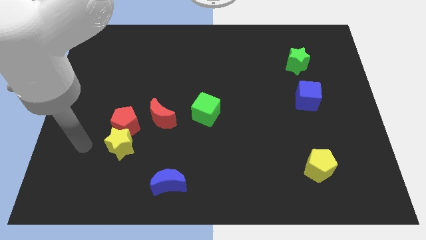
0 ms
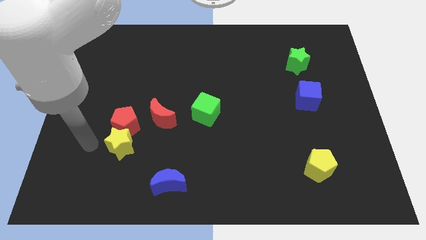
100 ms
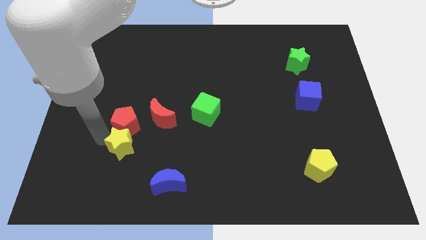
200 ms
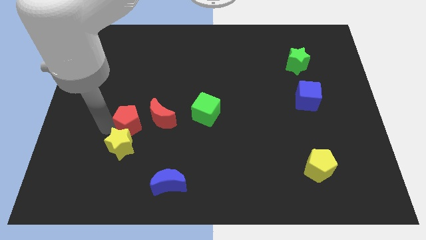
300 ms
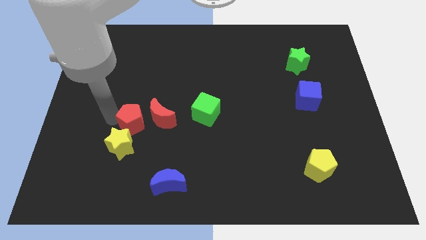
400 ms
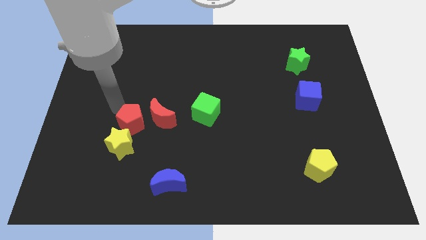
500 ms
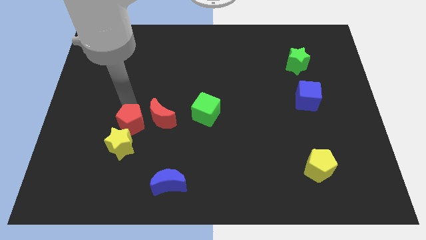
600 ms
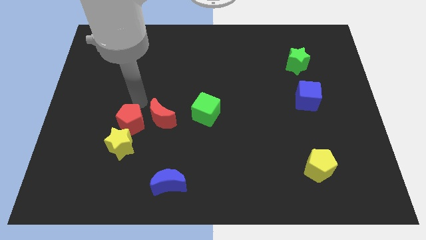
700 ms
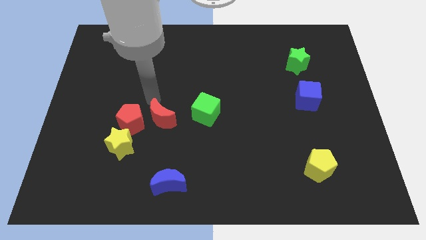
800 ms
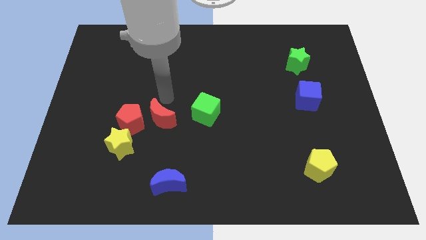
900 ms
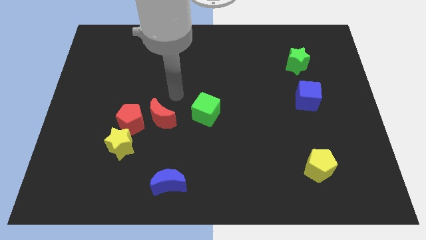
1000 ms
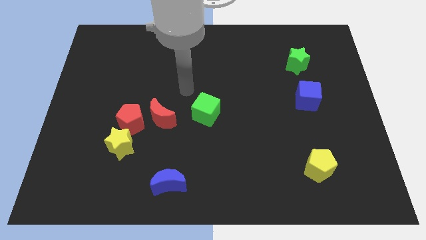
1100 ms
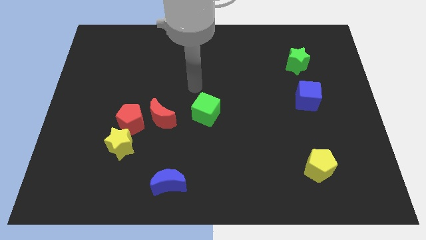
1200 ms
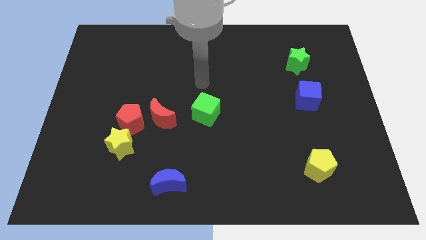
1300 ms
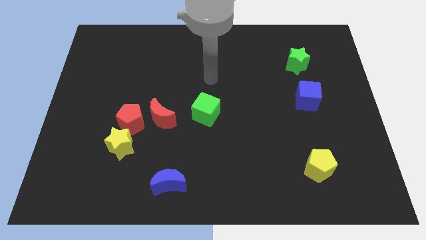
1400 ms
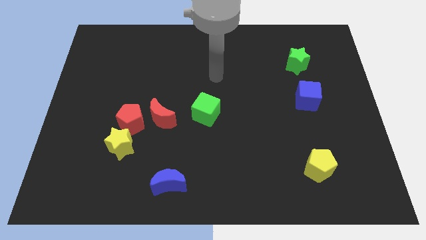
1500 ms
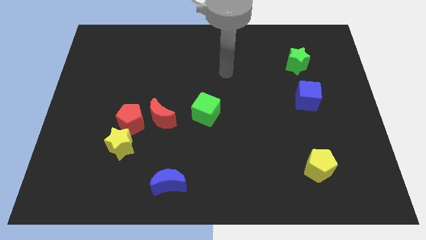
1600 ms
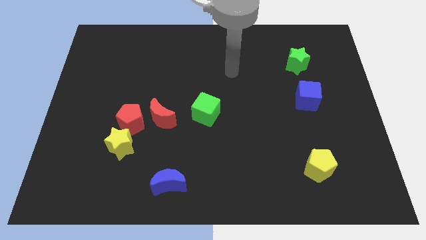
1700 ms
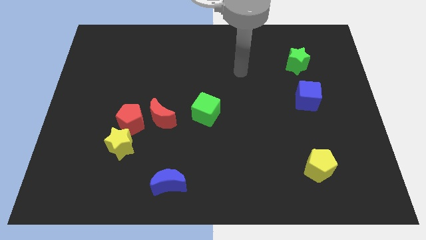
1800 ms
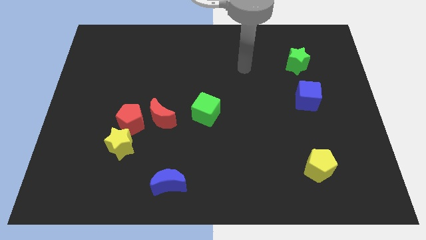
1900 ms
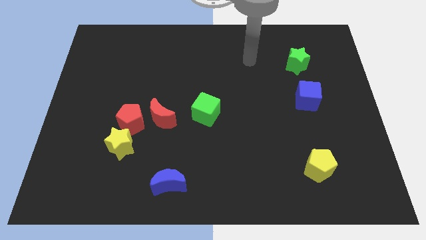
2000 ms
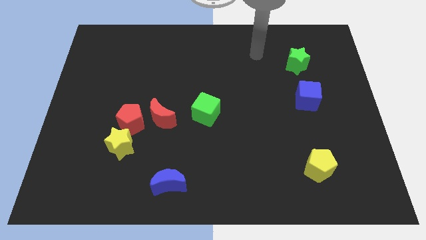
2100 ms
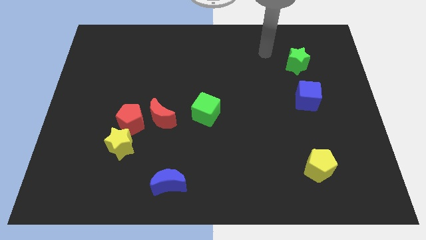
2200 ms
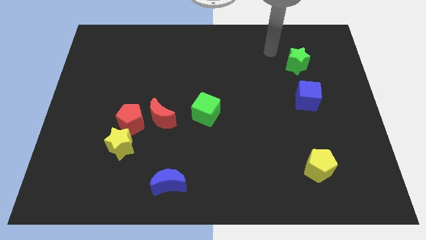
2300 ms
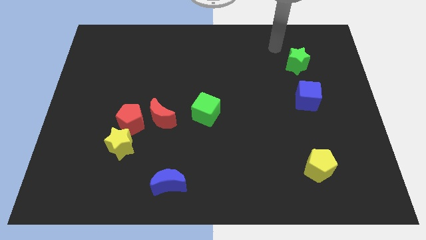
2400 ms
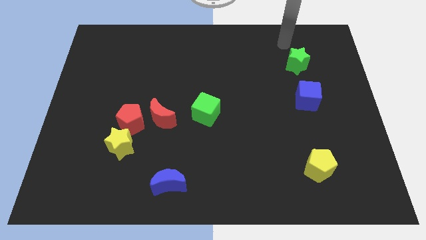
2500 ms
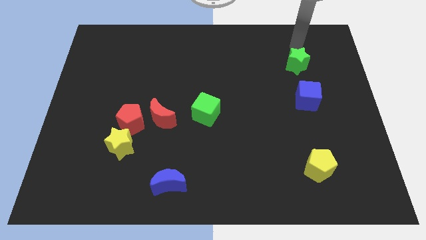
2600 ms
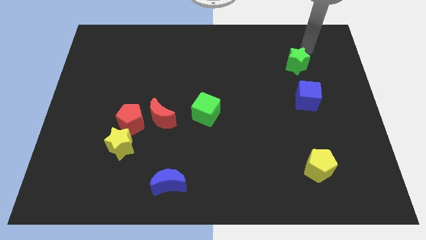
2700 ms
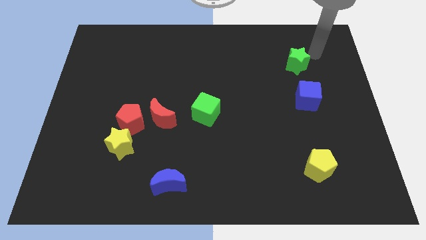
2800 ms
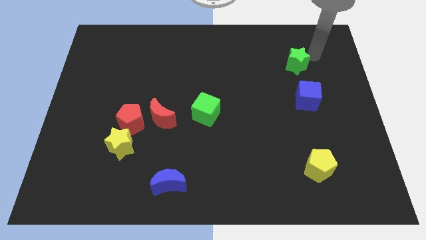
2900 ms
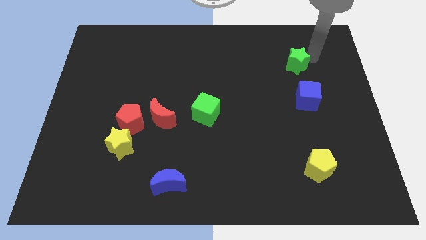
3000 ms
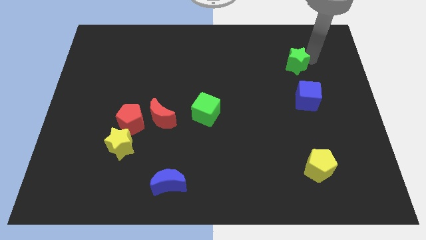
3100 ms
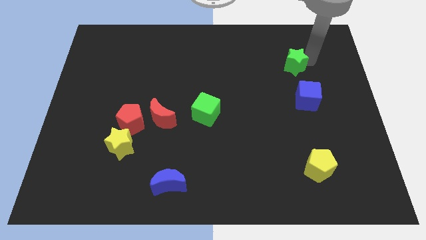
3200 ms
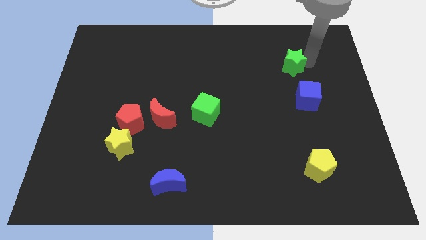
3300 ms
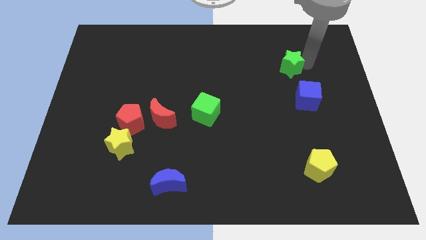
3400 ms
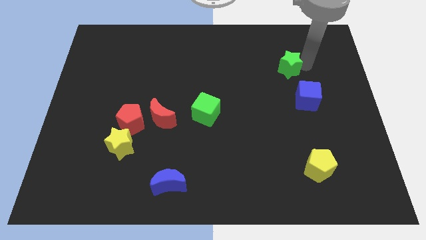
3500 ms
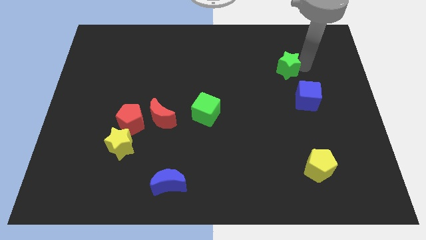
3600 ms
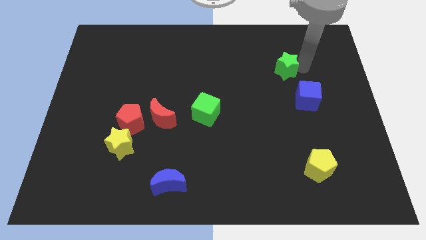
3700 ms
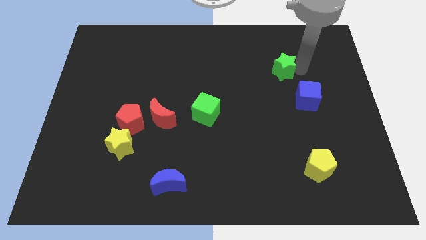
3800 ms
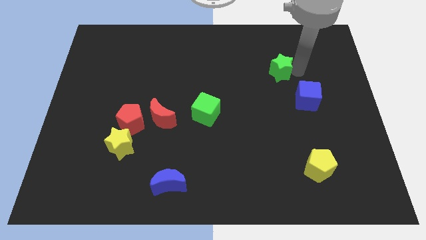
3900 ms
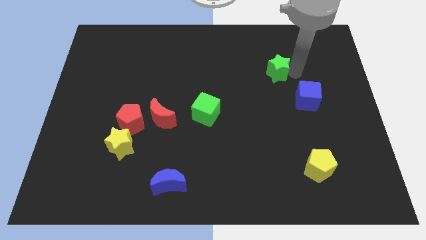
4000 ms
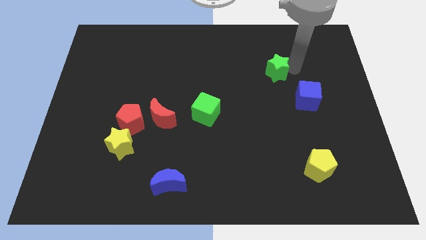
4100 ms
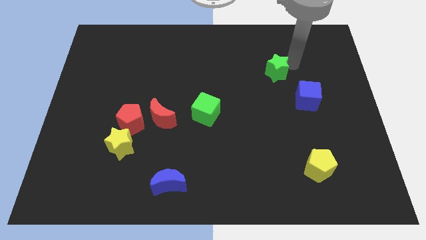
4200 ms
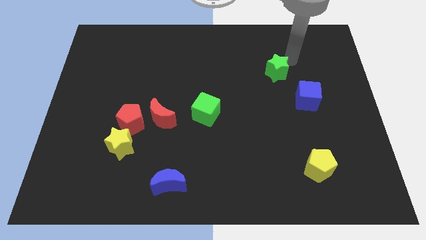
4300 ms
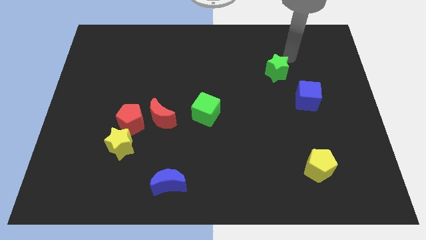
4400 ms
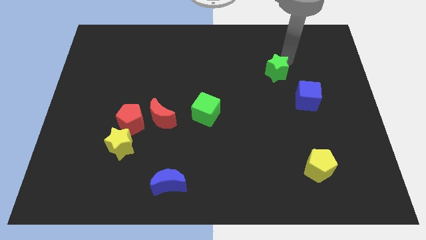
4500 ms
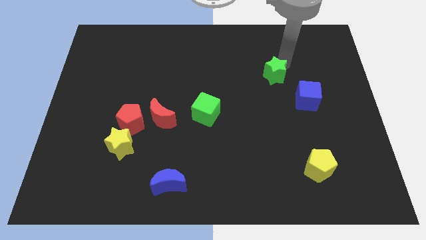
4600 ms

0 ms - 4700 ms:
slide the green star a little bit down and to the left

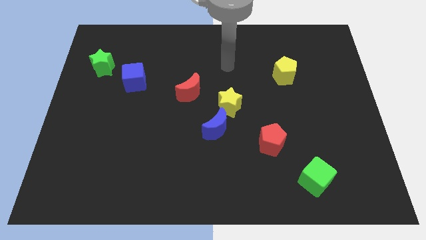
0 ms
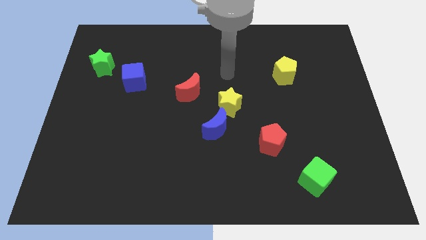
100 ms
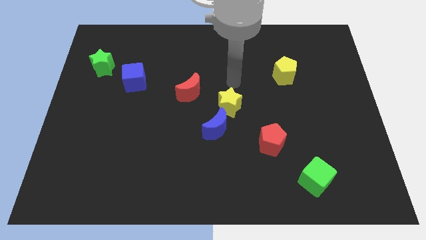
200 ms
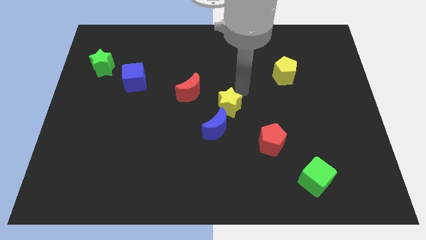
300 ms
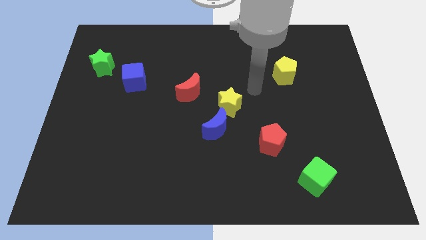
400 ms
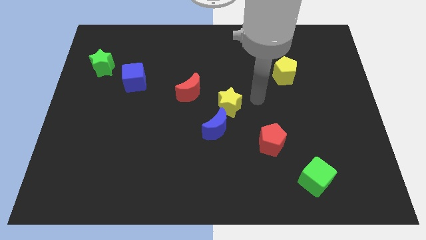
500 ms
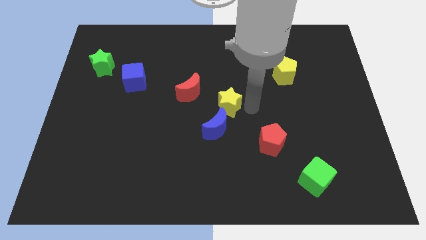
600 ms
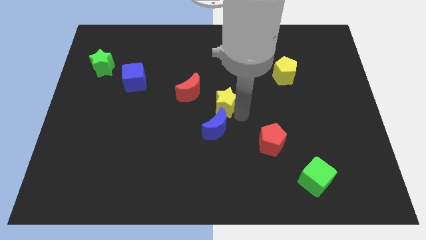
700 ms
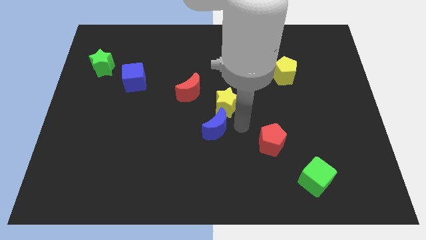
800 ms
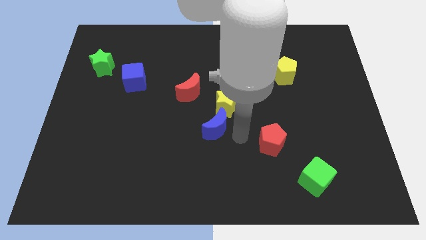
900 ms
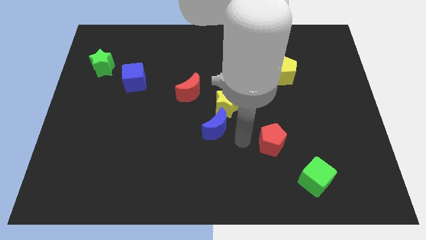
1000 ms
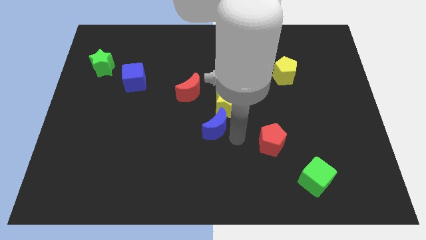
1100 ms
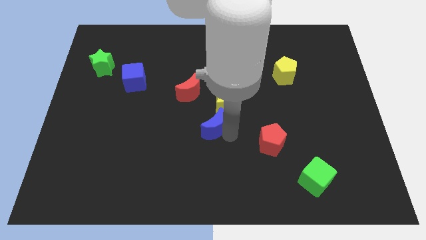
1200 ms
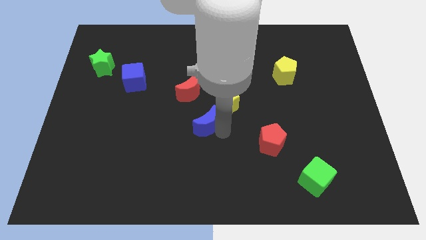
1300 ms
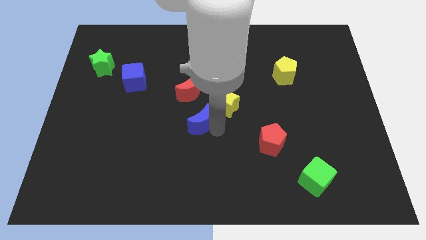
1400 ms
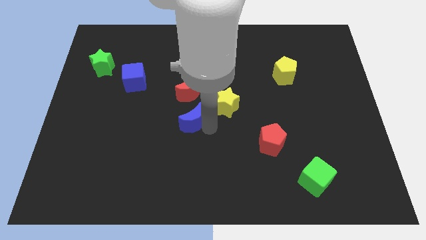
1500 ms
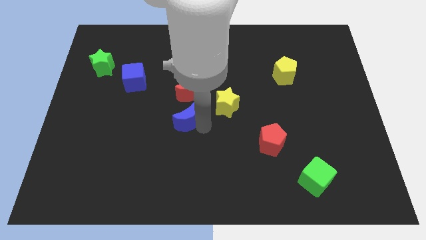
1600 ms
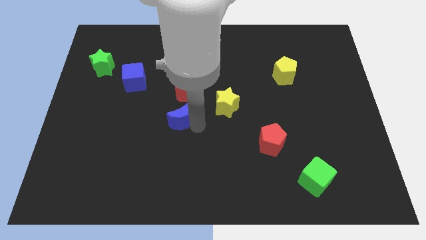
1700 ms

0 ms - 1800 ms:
slightly move the blue moon up and to the left

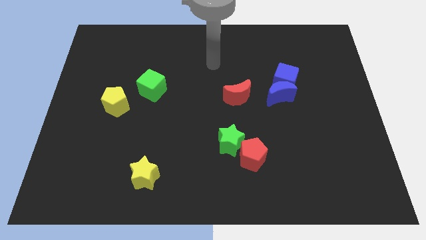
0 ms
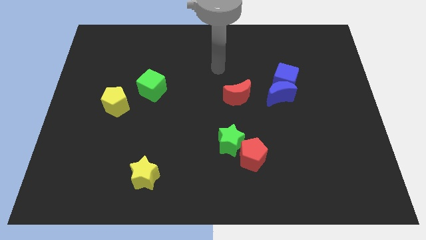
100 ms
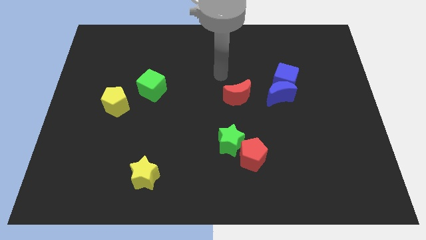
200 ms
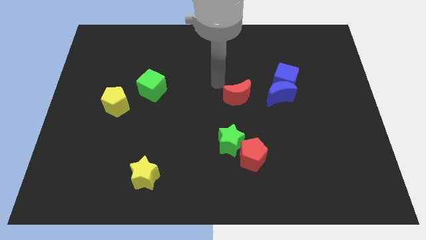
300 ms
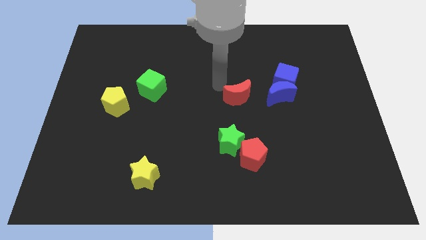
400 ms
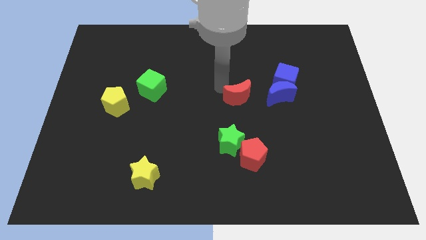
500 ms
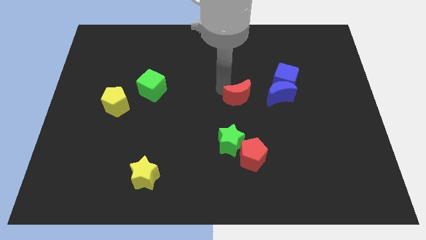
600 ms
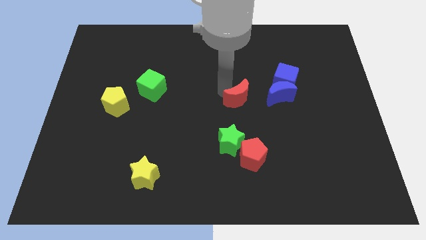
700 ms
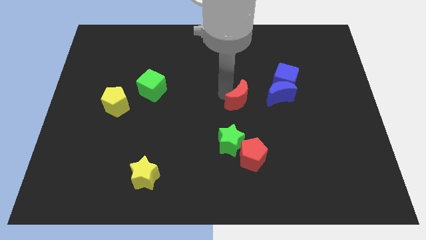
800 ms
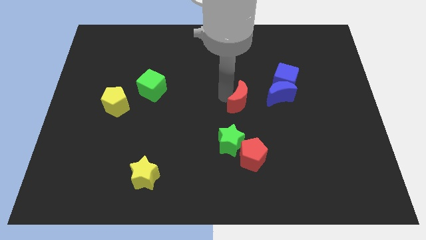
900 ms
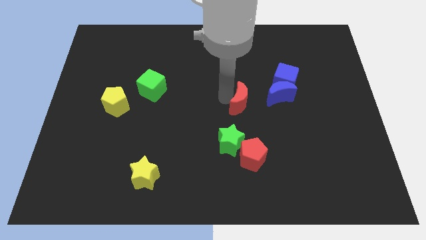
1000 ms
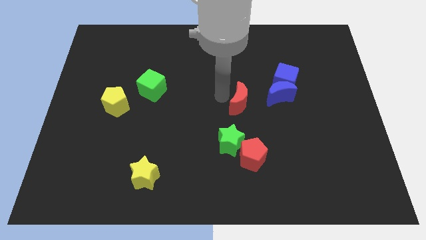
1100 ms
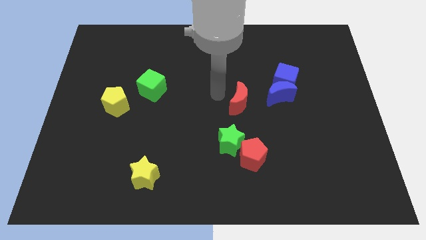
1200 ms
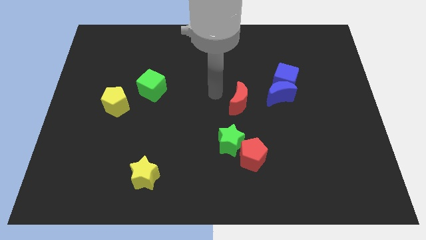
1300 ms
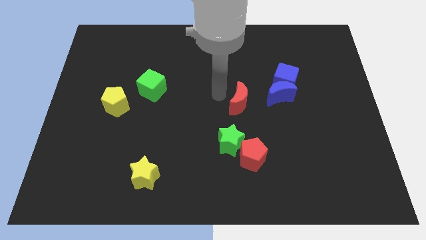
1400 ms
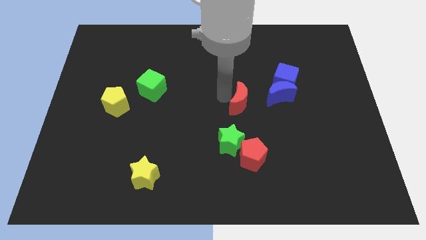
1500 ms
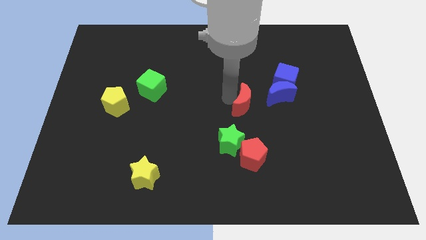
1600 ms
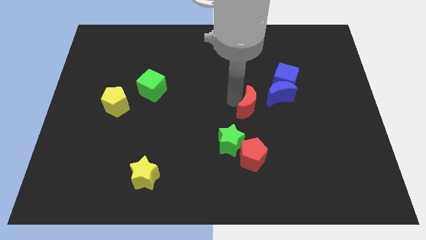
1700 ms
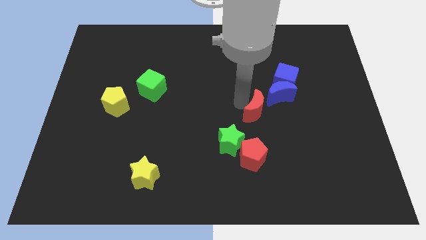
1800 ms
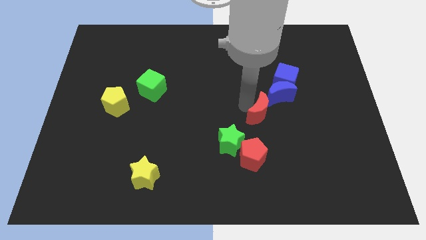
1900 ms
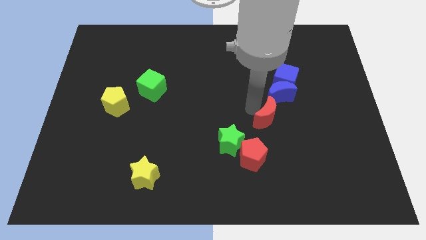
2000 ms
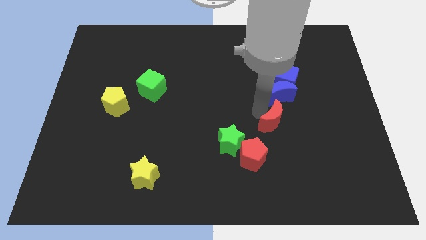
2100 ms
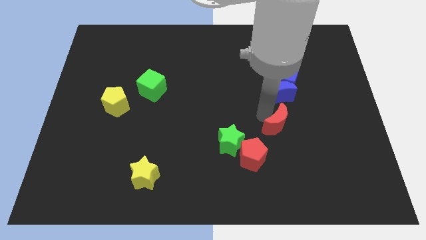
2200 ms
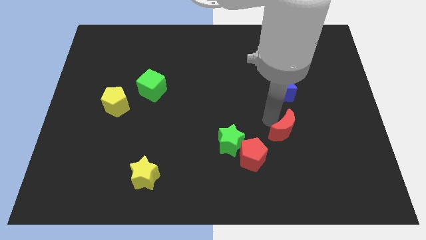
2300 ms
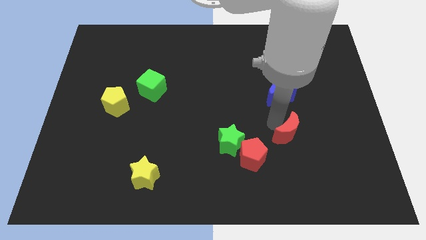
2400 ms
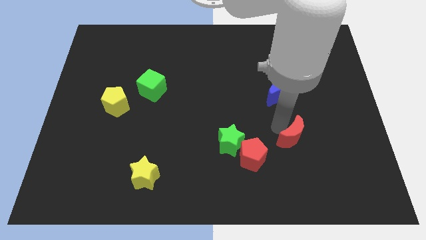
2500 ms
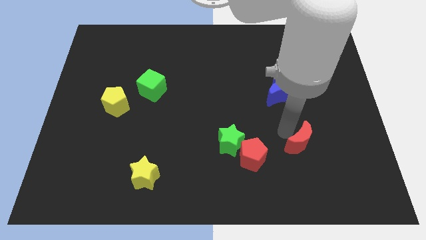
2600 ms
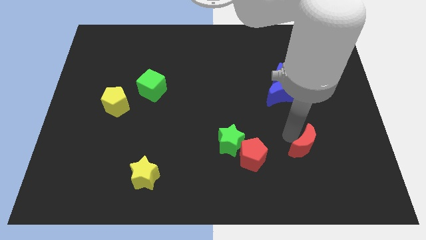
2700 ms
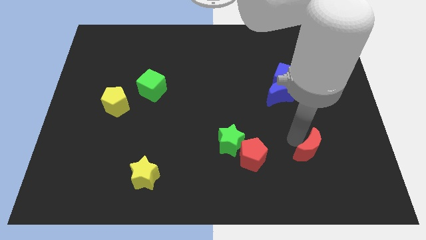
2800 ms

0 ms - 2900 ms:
push the red moon diagonally downwards and right
